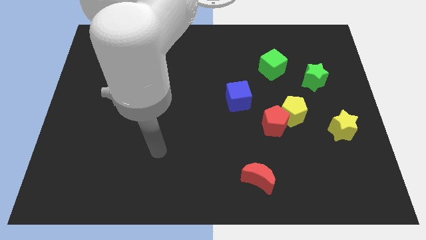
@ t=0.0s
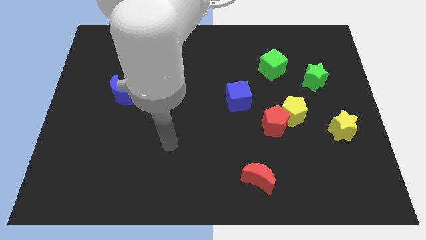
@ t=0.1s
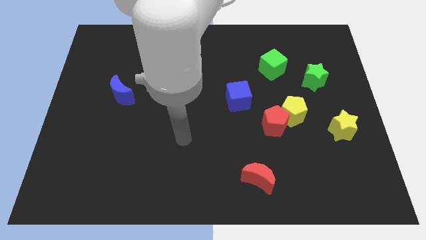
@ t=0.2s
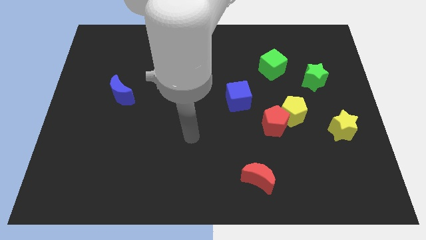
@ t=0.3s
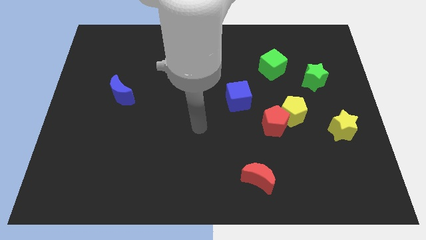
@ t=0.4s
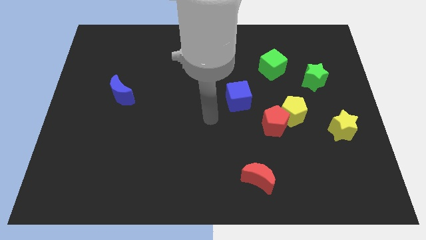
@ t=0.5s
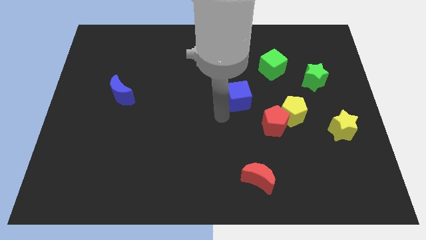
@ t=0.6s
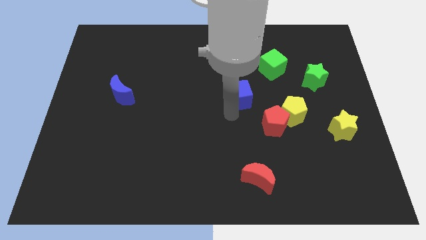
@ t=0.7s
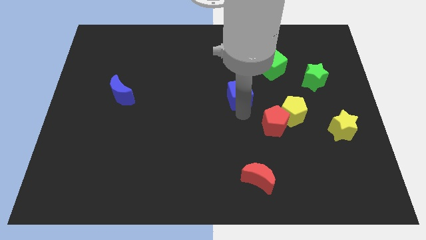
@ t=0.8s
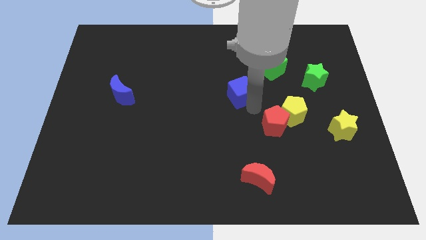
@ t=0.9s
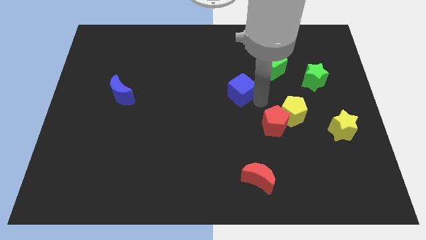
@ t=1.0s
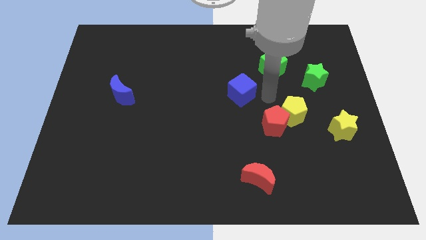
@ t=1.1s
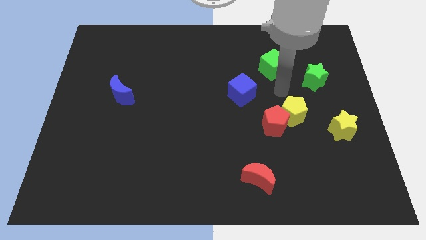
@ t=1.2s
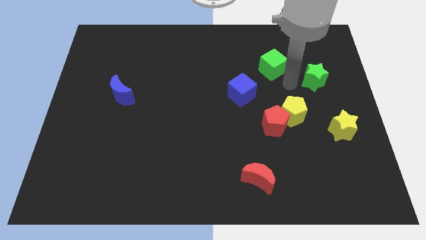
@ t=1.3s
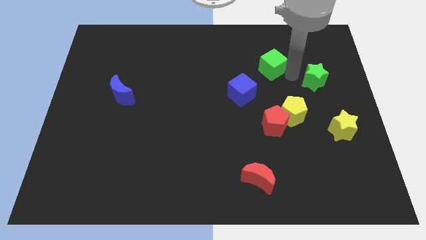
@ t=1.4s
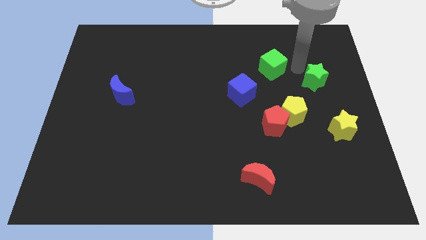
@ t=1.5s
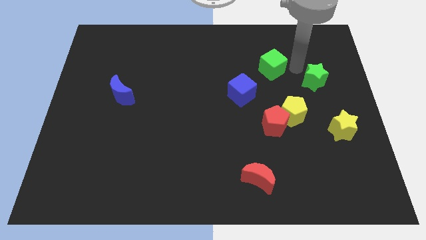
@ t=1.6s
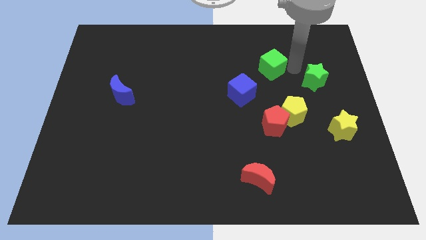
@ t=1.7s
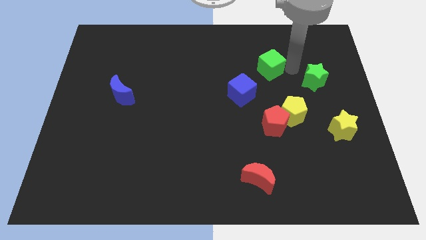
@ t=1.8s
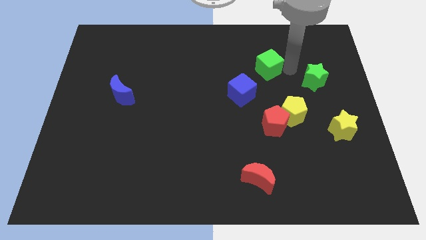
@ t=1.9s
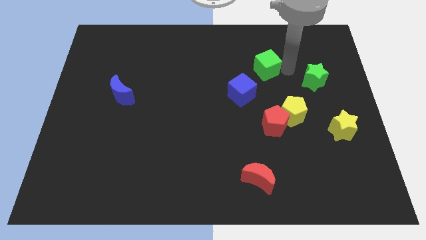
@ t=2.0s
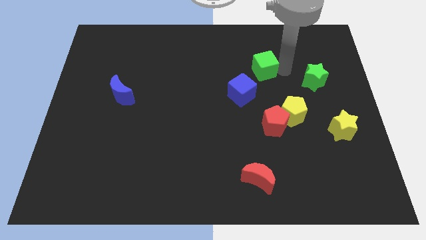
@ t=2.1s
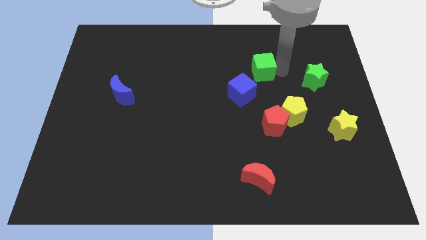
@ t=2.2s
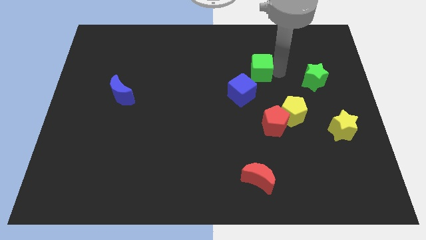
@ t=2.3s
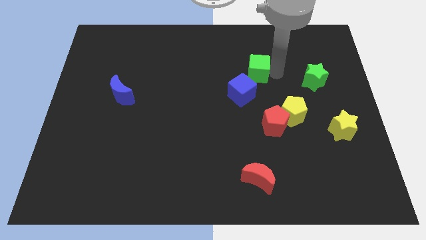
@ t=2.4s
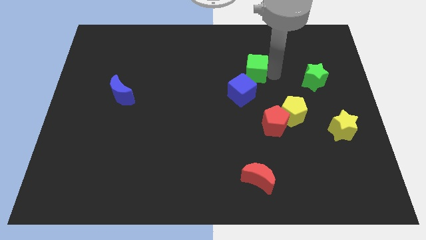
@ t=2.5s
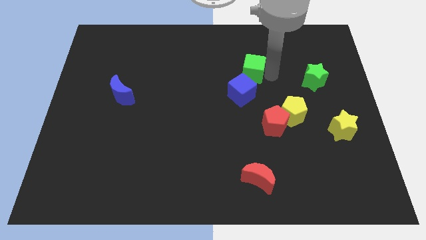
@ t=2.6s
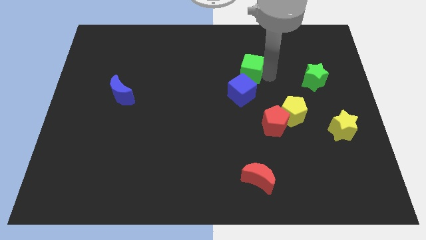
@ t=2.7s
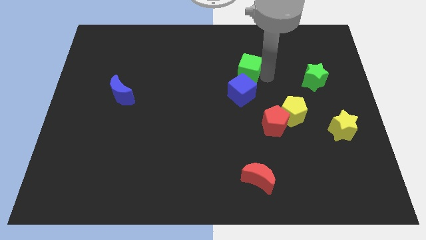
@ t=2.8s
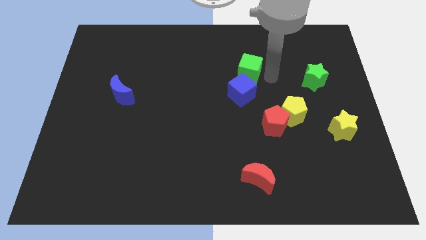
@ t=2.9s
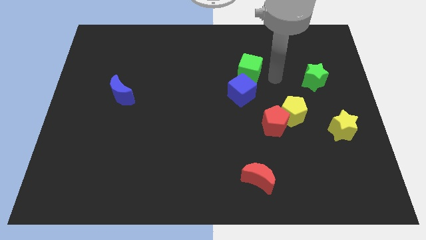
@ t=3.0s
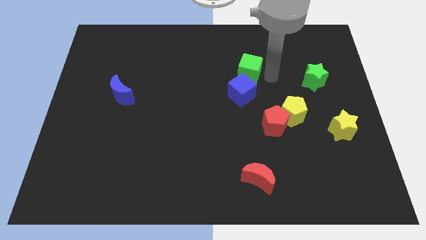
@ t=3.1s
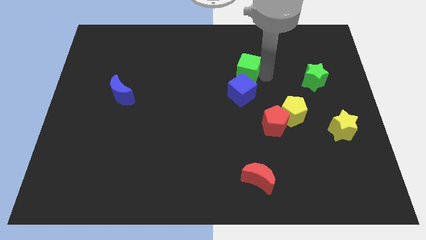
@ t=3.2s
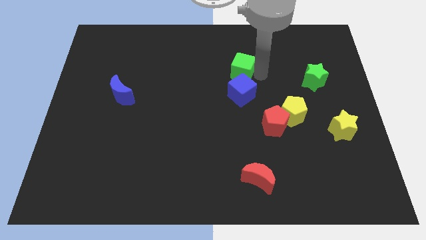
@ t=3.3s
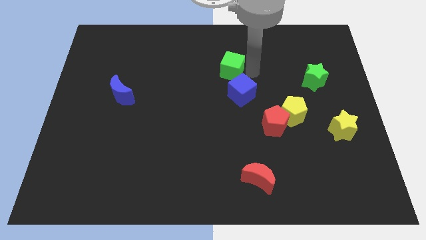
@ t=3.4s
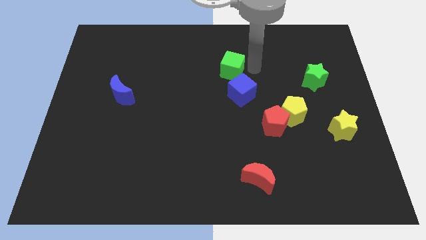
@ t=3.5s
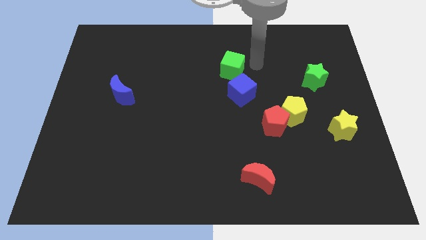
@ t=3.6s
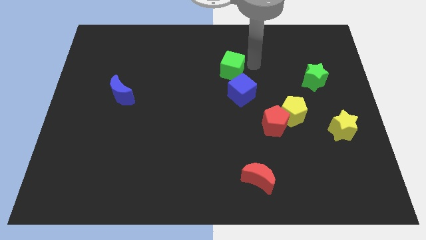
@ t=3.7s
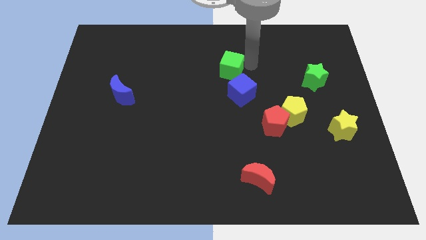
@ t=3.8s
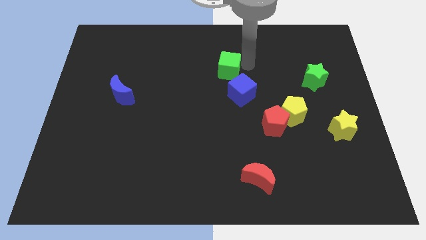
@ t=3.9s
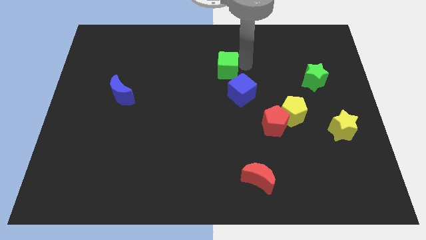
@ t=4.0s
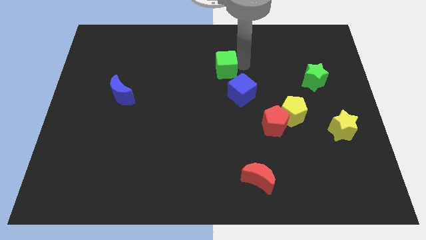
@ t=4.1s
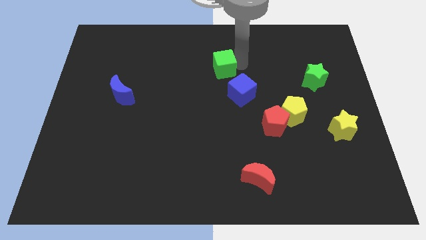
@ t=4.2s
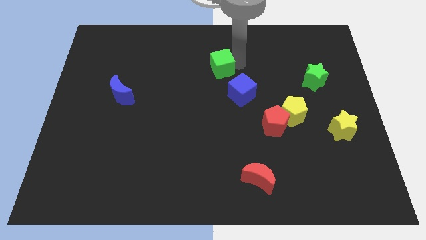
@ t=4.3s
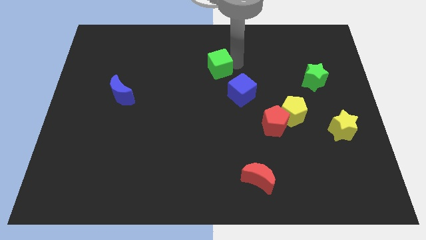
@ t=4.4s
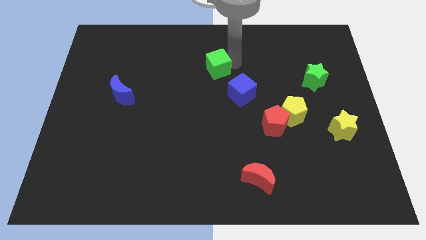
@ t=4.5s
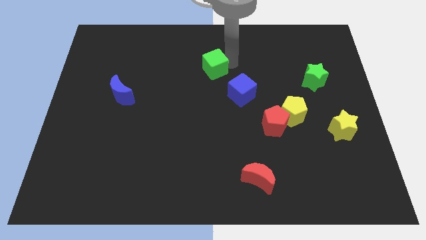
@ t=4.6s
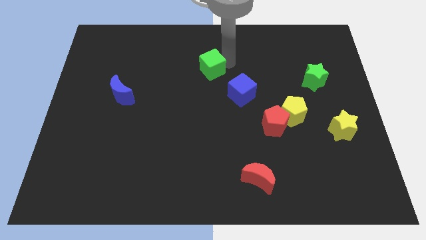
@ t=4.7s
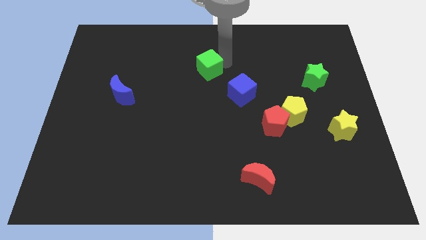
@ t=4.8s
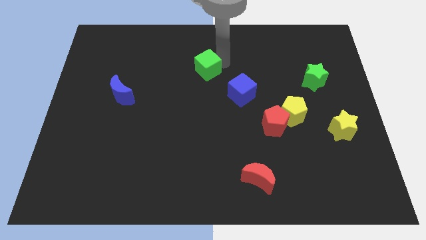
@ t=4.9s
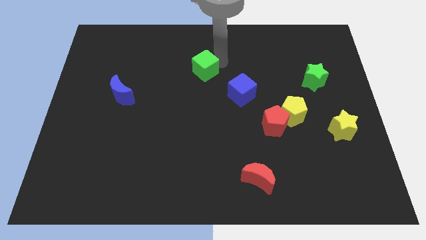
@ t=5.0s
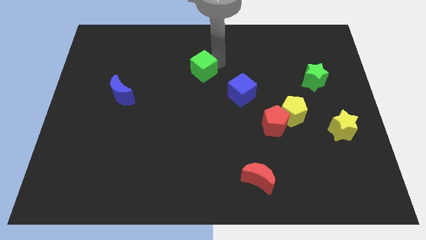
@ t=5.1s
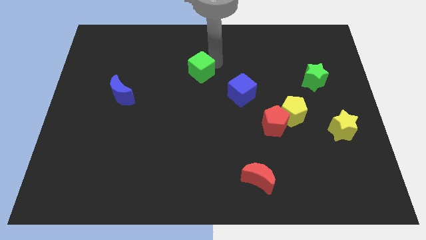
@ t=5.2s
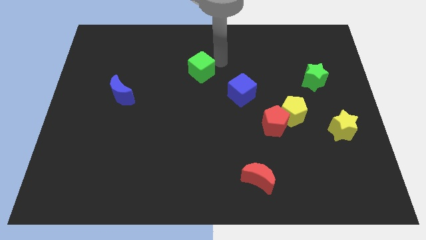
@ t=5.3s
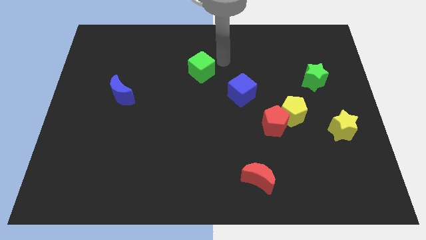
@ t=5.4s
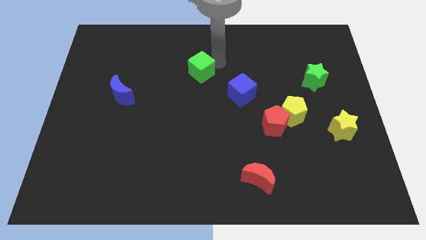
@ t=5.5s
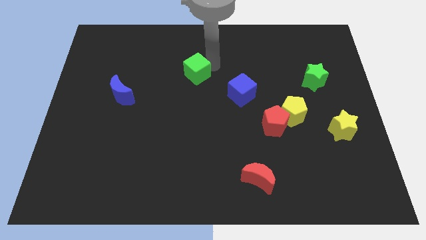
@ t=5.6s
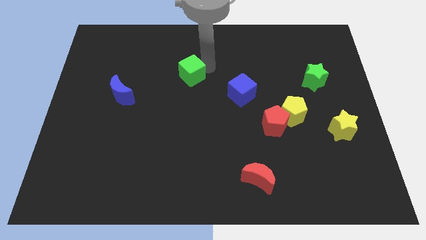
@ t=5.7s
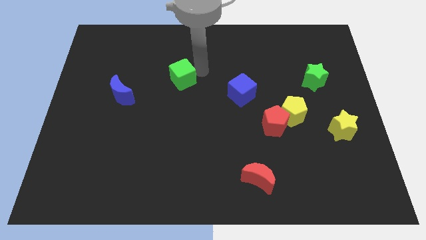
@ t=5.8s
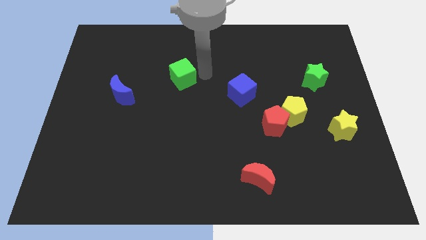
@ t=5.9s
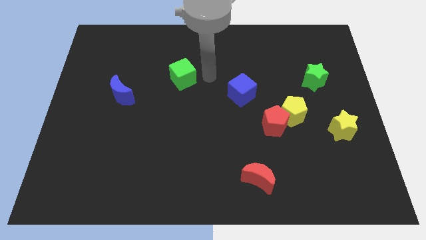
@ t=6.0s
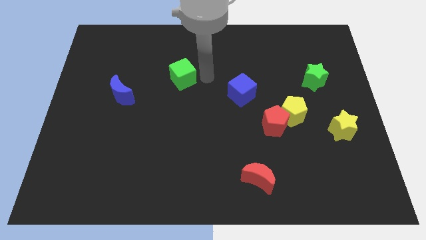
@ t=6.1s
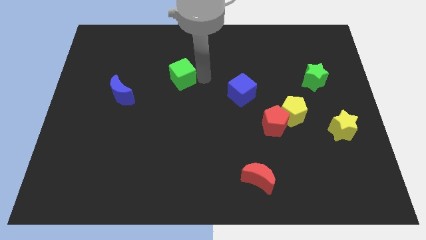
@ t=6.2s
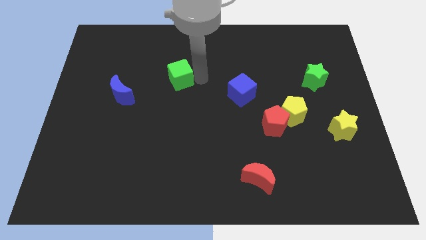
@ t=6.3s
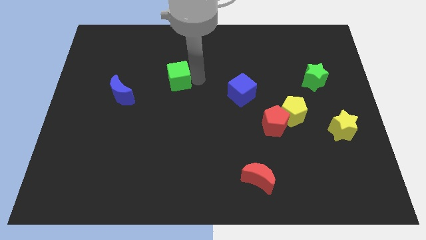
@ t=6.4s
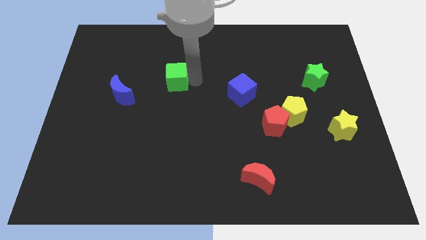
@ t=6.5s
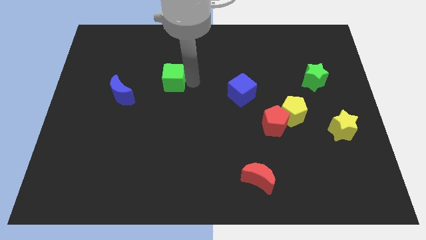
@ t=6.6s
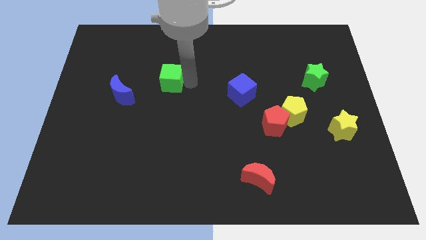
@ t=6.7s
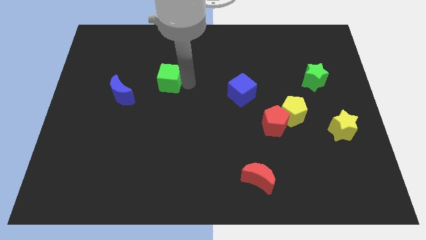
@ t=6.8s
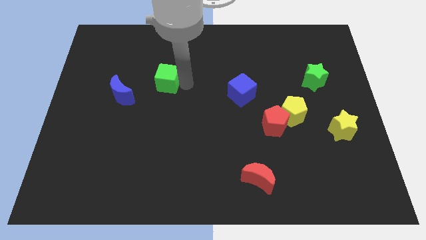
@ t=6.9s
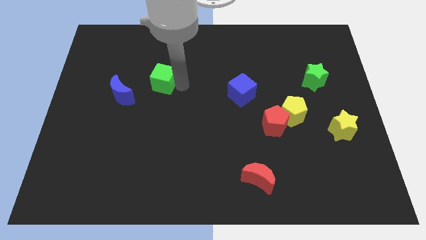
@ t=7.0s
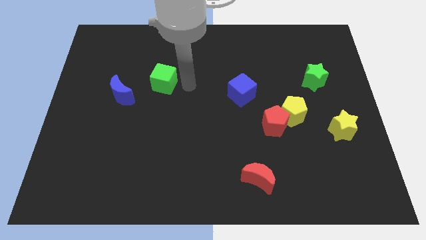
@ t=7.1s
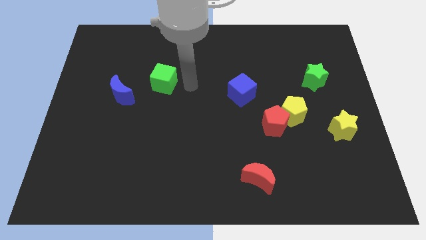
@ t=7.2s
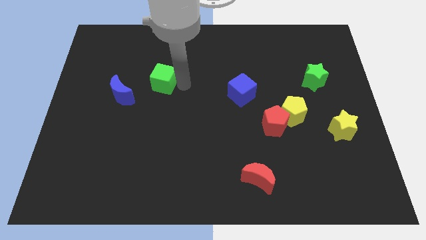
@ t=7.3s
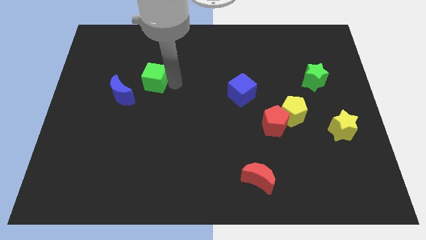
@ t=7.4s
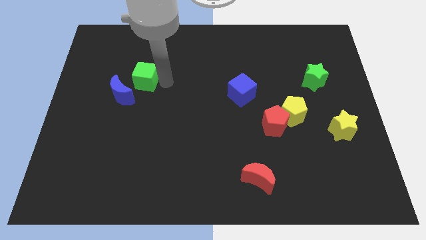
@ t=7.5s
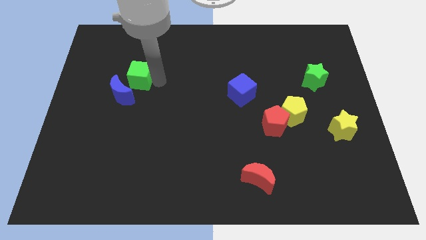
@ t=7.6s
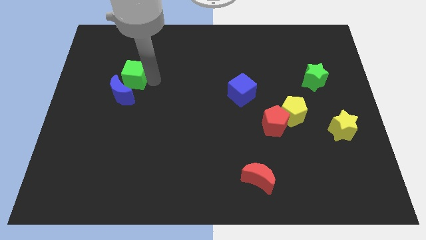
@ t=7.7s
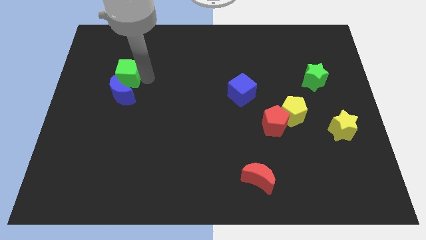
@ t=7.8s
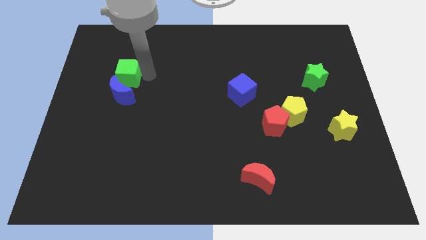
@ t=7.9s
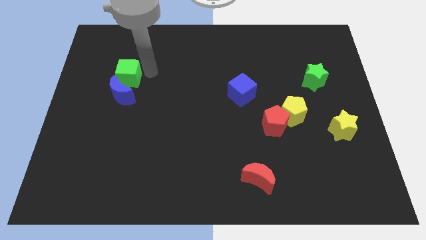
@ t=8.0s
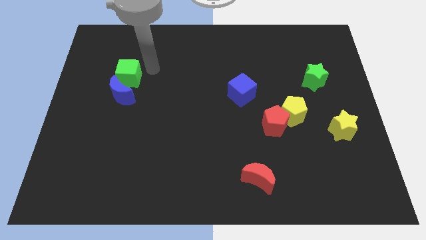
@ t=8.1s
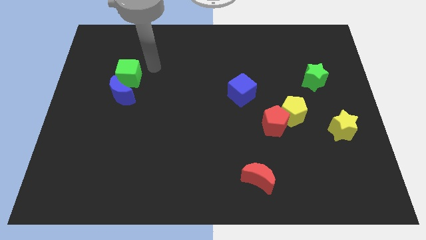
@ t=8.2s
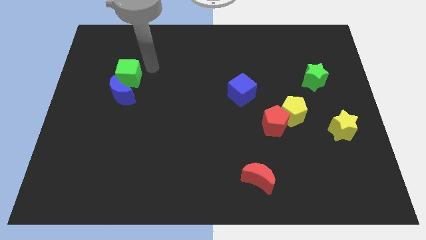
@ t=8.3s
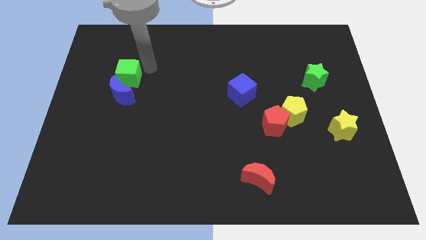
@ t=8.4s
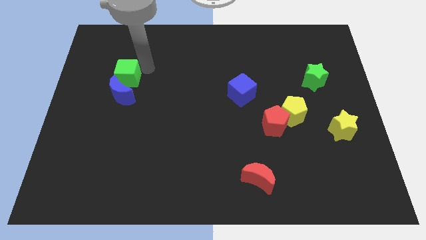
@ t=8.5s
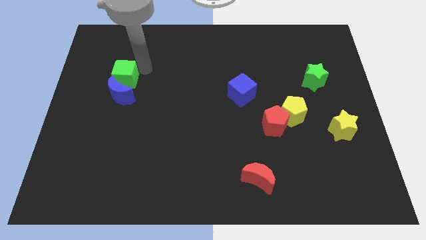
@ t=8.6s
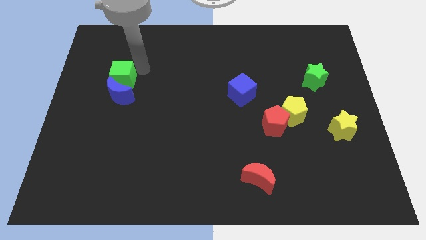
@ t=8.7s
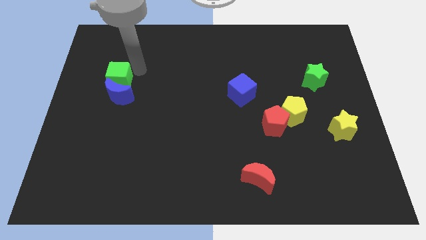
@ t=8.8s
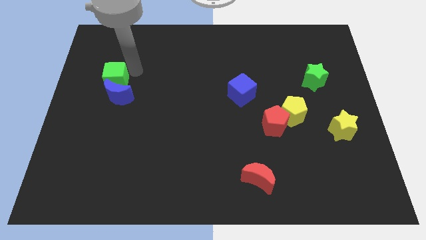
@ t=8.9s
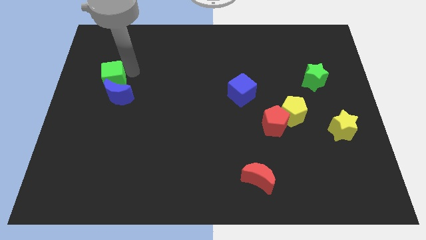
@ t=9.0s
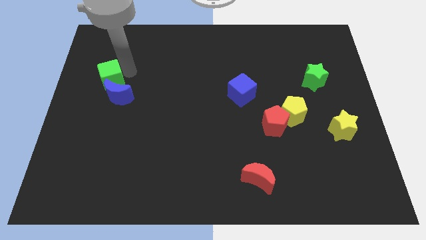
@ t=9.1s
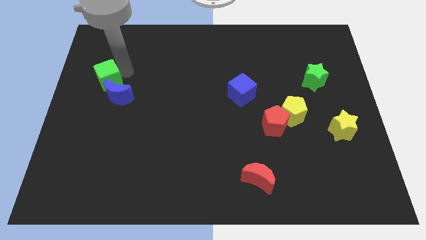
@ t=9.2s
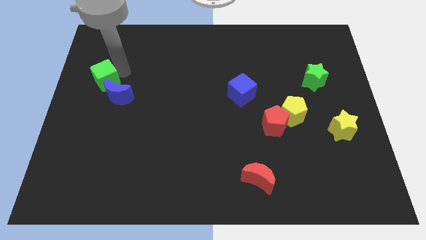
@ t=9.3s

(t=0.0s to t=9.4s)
push the green cube to the left side of the board
